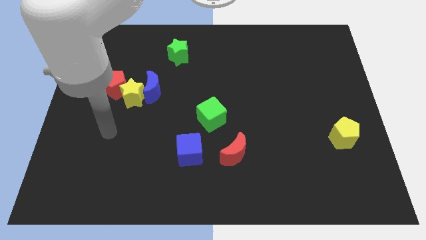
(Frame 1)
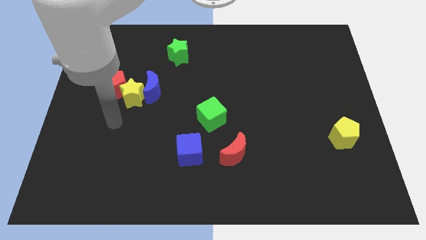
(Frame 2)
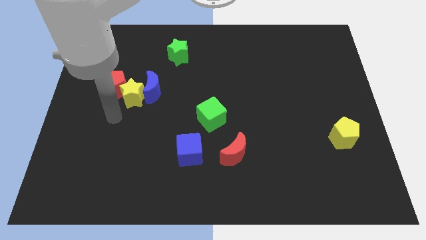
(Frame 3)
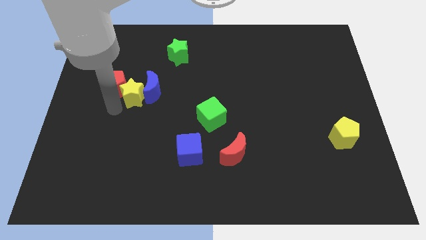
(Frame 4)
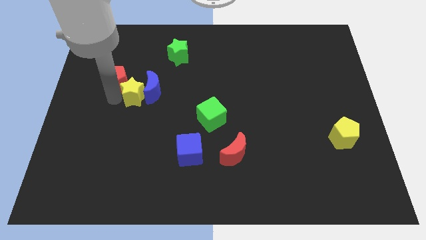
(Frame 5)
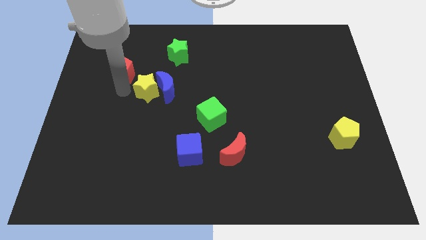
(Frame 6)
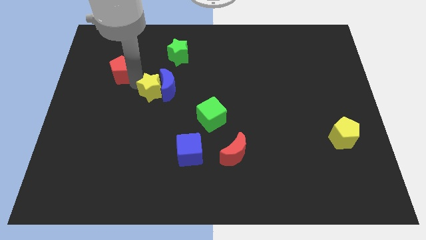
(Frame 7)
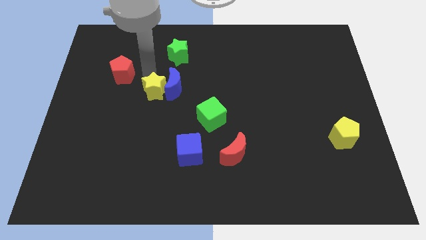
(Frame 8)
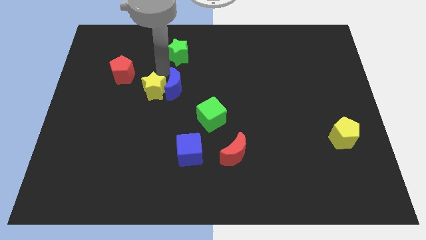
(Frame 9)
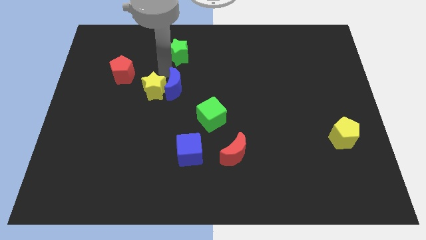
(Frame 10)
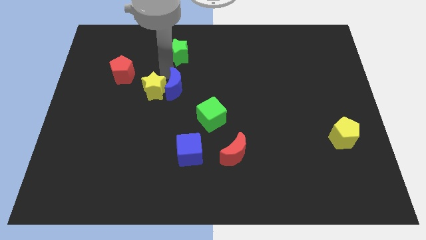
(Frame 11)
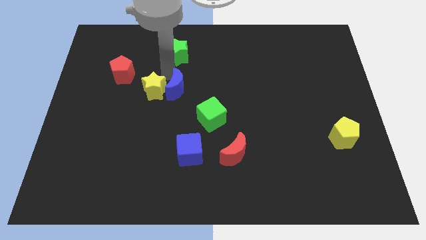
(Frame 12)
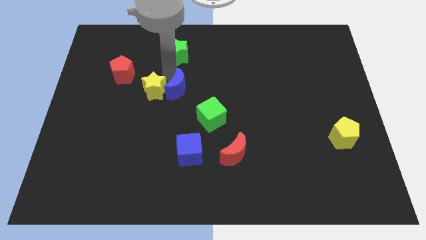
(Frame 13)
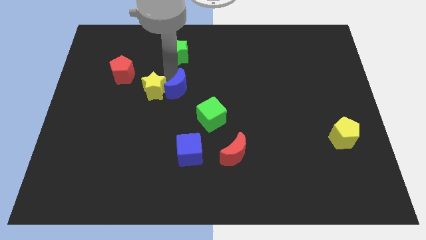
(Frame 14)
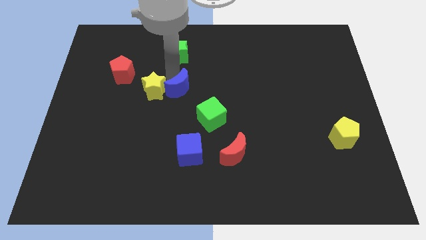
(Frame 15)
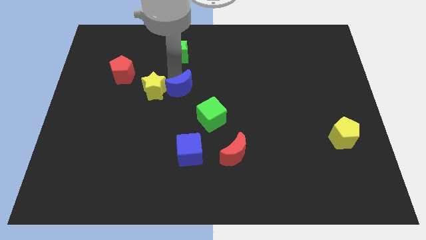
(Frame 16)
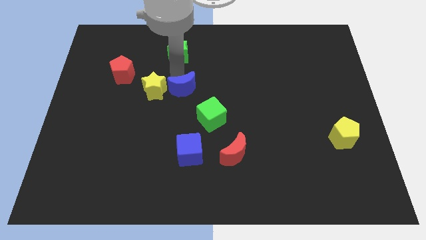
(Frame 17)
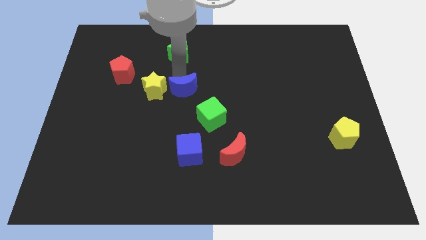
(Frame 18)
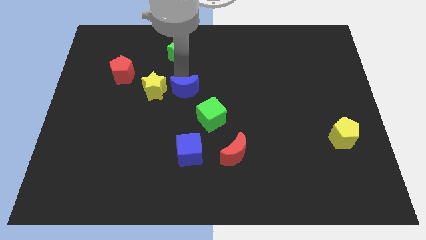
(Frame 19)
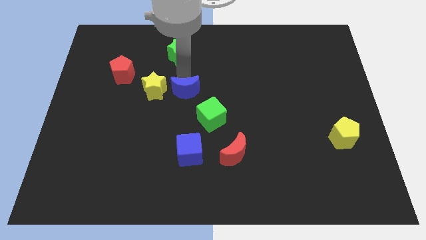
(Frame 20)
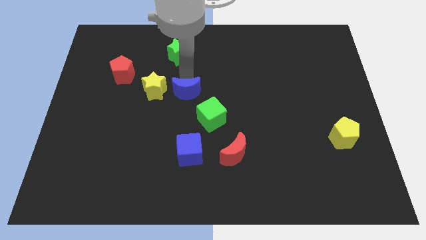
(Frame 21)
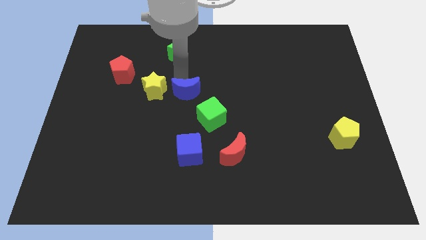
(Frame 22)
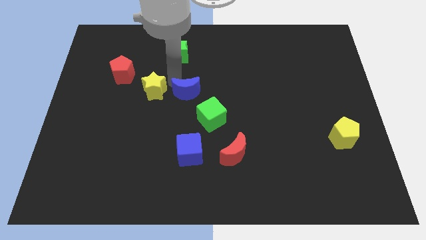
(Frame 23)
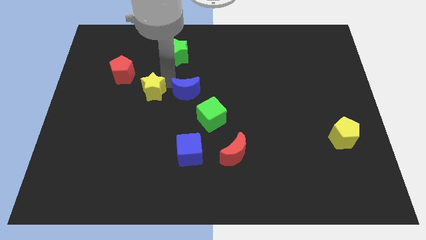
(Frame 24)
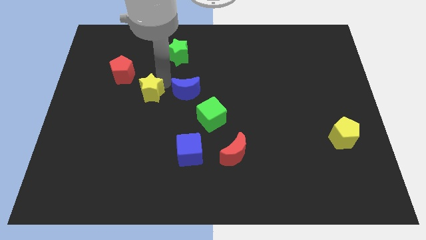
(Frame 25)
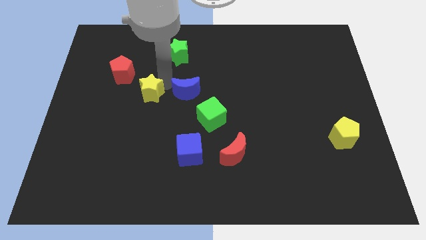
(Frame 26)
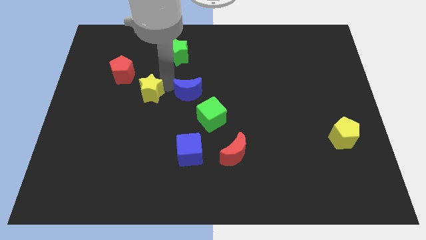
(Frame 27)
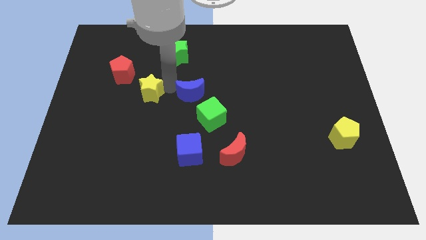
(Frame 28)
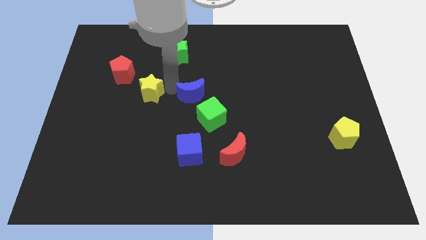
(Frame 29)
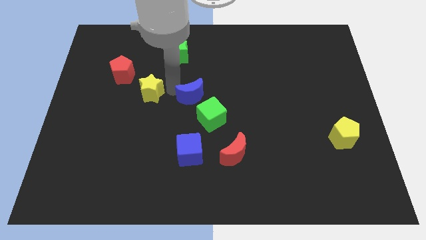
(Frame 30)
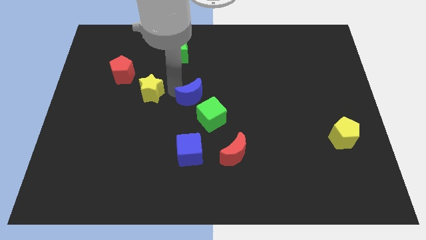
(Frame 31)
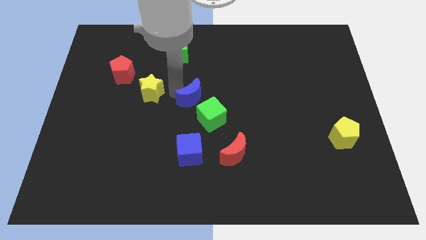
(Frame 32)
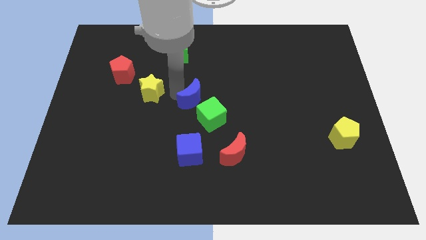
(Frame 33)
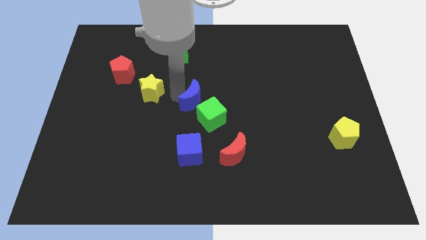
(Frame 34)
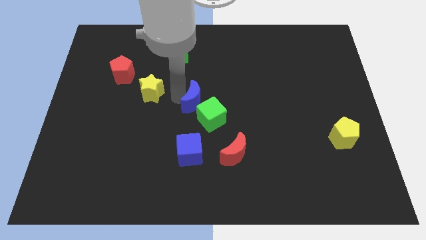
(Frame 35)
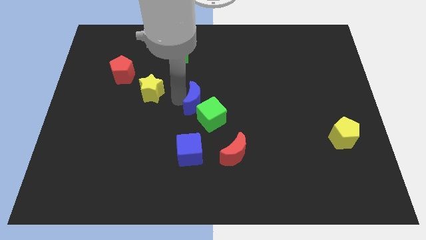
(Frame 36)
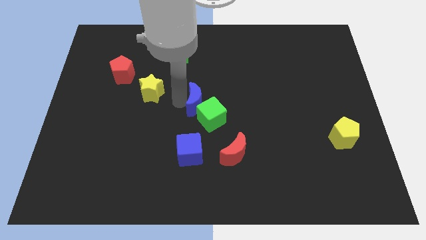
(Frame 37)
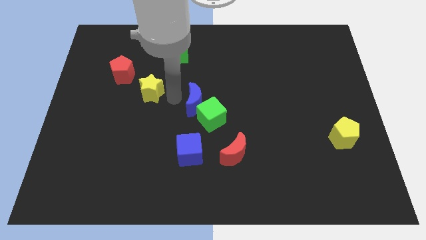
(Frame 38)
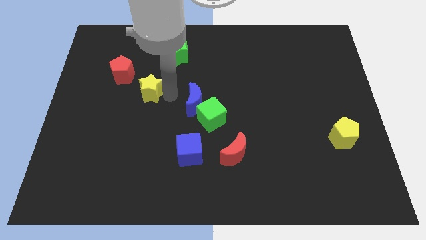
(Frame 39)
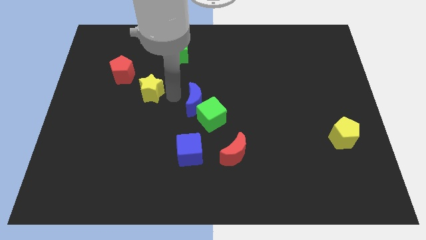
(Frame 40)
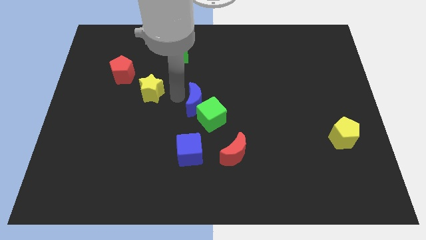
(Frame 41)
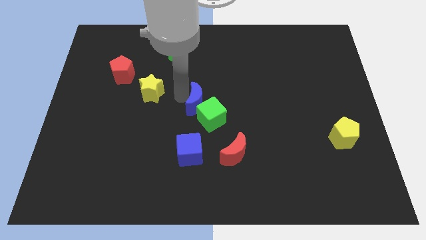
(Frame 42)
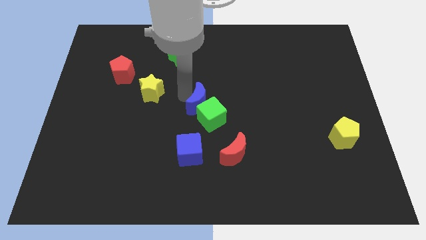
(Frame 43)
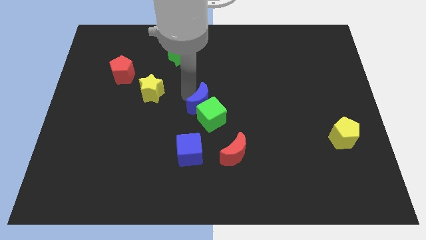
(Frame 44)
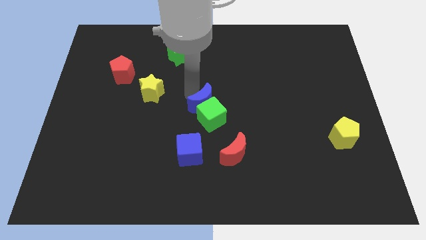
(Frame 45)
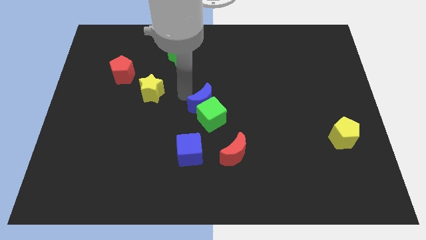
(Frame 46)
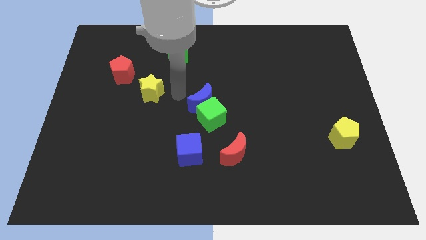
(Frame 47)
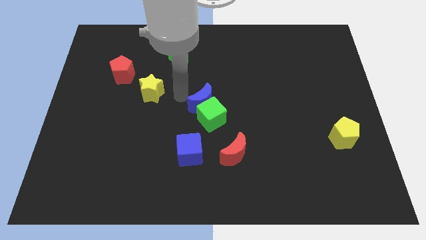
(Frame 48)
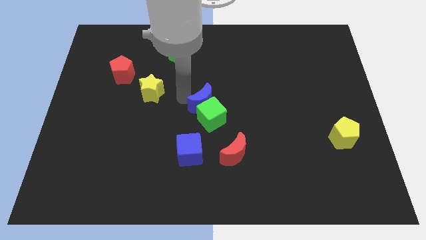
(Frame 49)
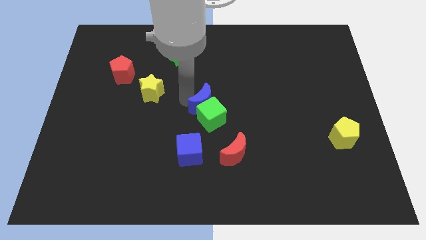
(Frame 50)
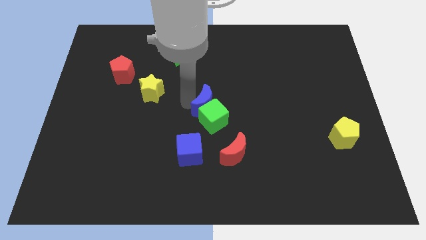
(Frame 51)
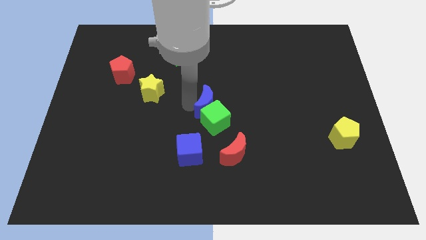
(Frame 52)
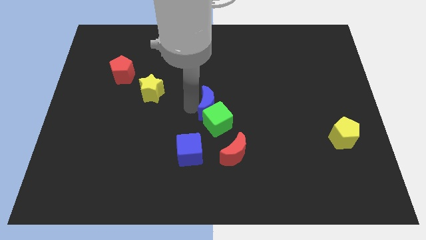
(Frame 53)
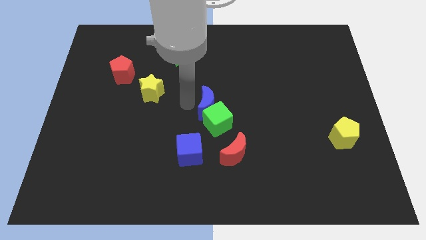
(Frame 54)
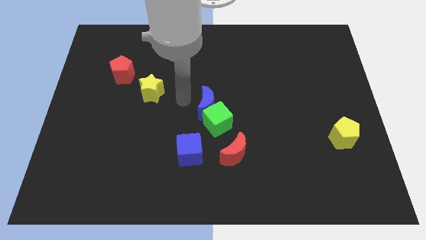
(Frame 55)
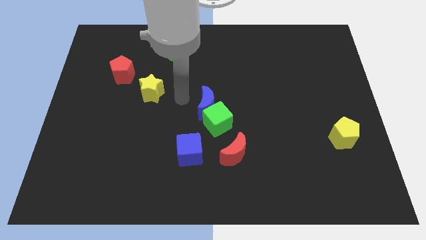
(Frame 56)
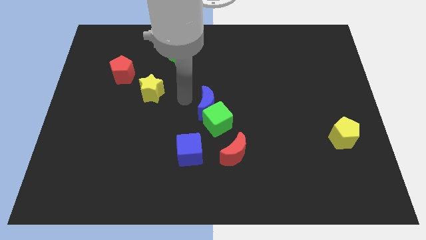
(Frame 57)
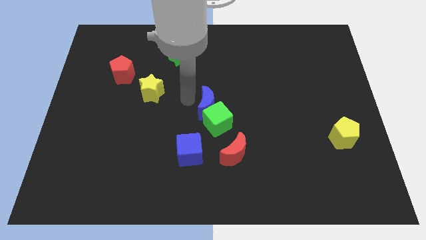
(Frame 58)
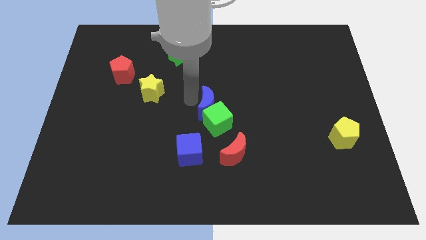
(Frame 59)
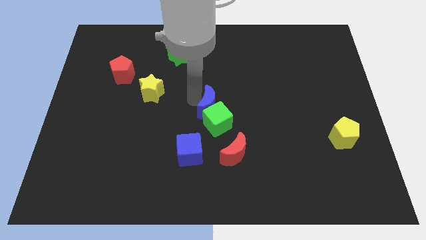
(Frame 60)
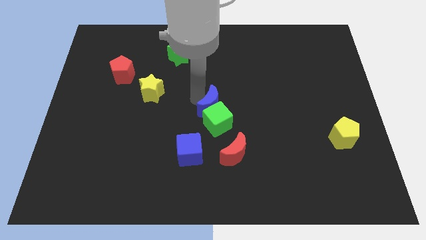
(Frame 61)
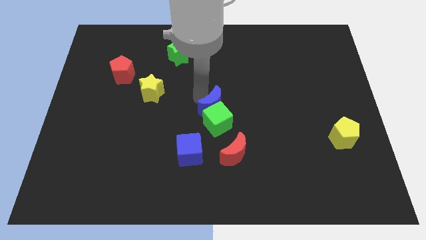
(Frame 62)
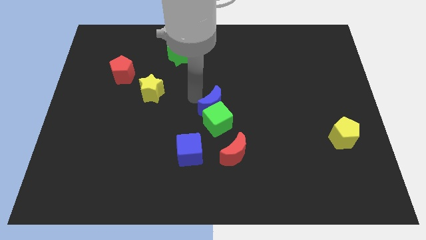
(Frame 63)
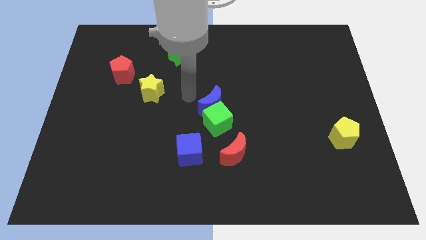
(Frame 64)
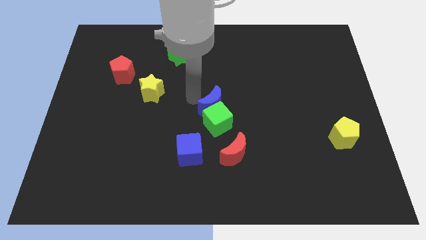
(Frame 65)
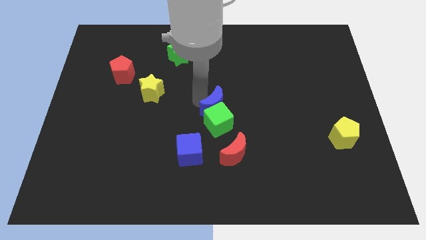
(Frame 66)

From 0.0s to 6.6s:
move the blue moon above the red moon
